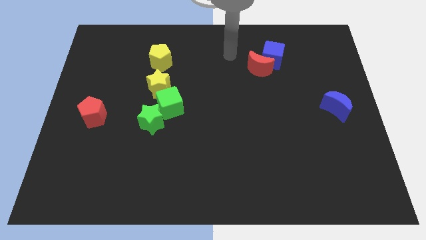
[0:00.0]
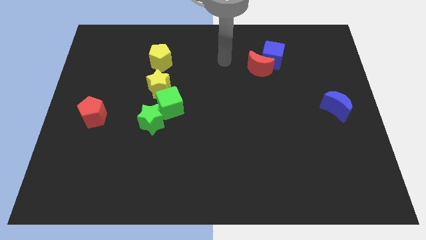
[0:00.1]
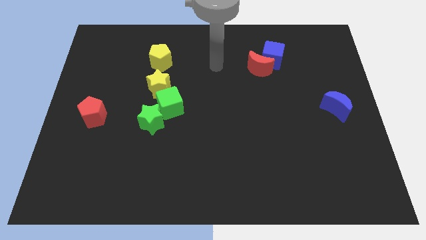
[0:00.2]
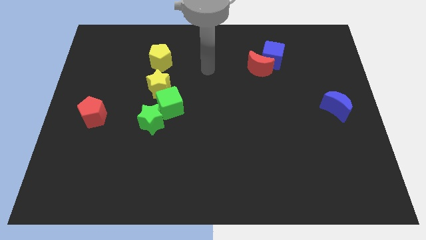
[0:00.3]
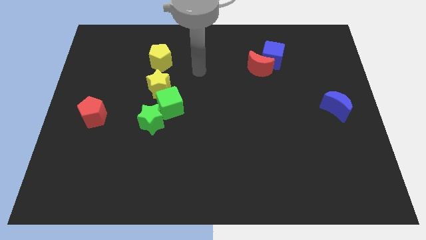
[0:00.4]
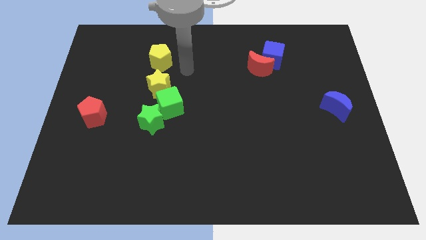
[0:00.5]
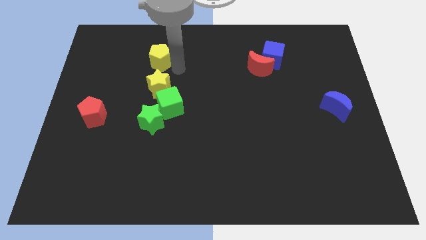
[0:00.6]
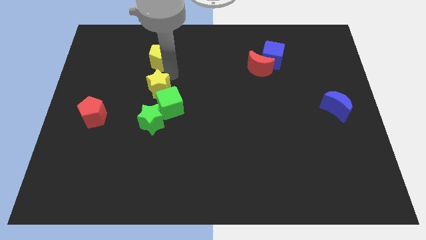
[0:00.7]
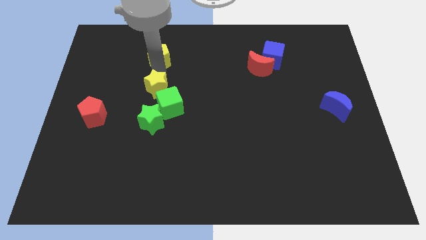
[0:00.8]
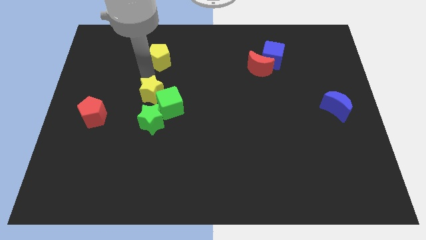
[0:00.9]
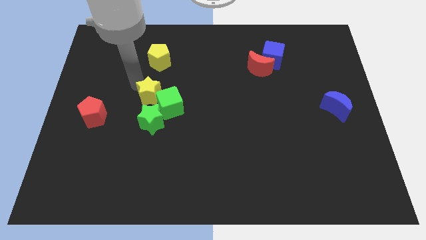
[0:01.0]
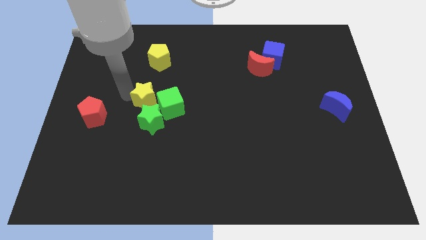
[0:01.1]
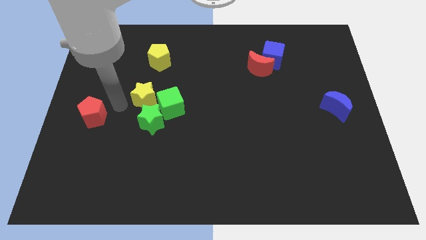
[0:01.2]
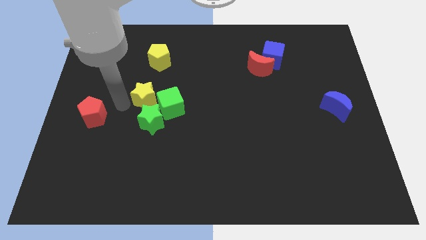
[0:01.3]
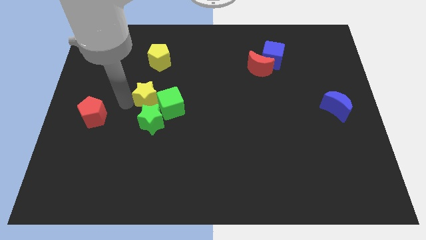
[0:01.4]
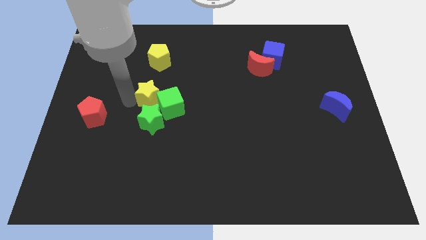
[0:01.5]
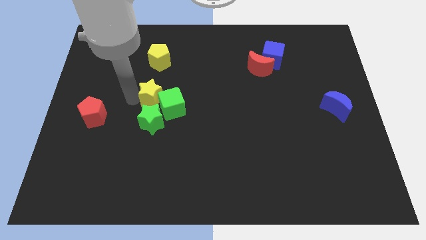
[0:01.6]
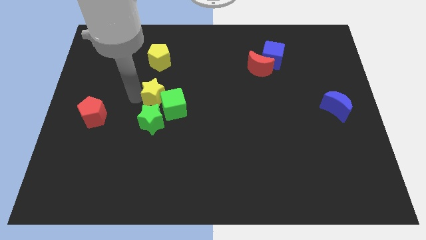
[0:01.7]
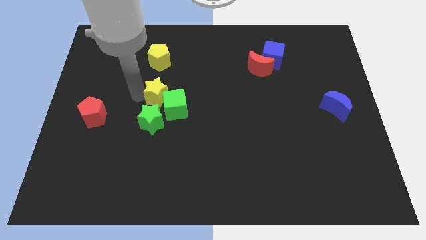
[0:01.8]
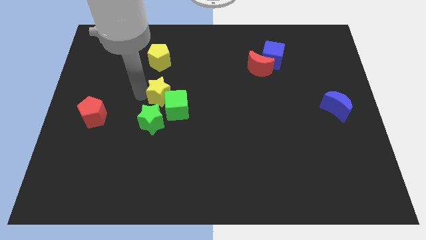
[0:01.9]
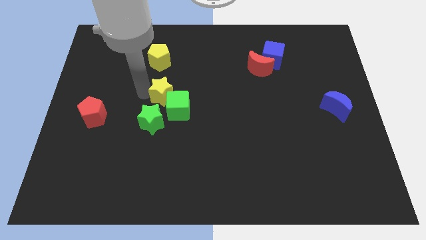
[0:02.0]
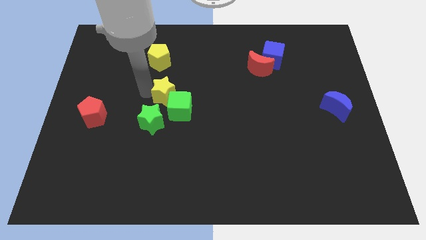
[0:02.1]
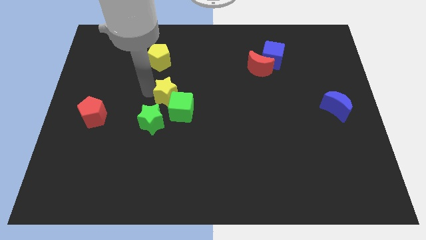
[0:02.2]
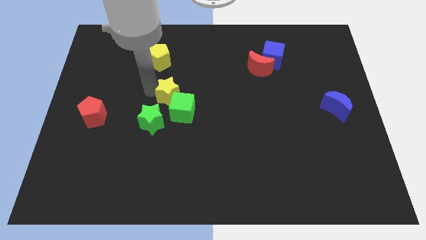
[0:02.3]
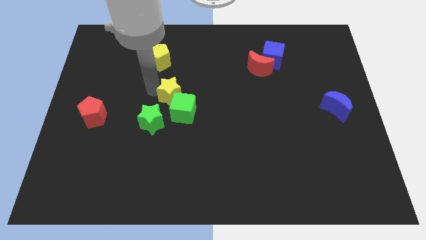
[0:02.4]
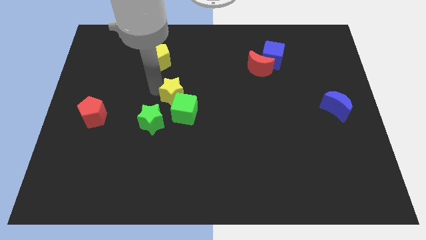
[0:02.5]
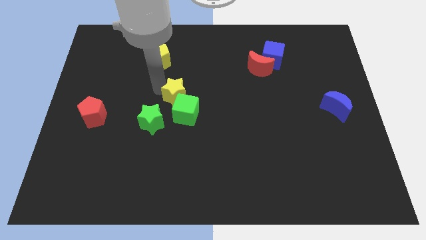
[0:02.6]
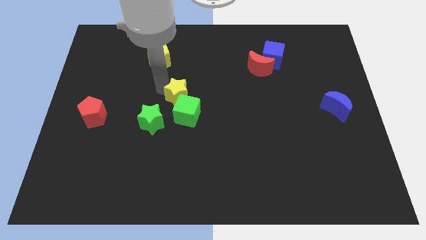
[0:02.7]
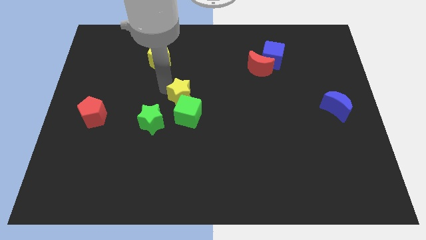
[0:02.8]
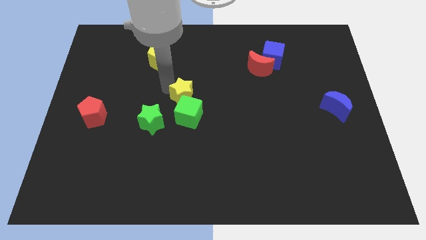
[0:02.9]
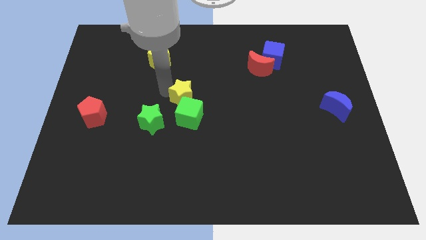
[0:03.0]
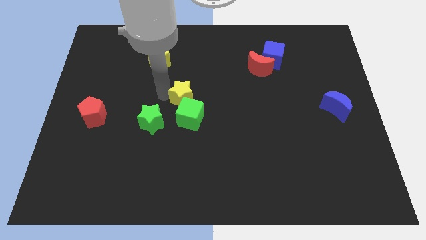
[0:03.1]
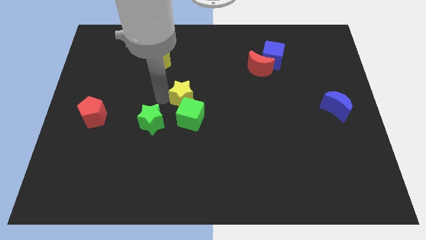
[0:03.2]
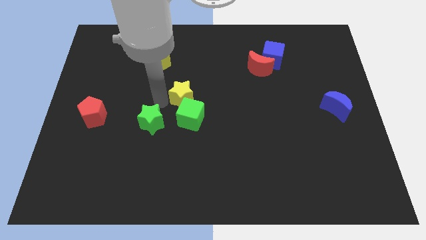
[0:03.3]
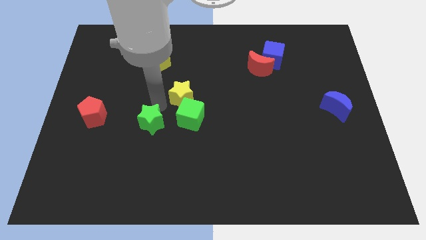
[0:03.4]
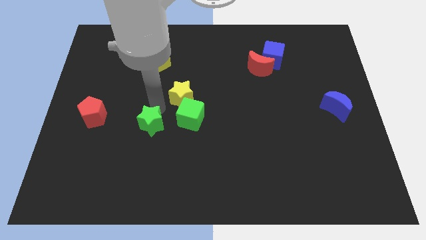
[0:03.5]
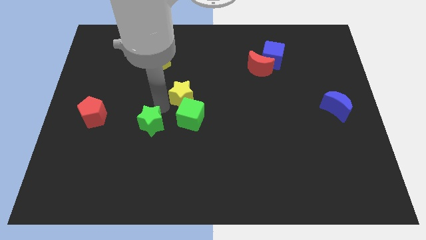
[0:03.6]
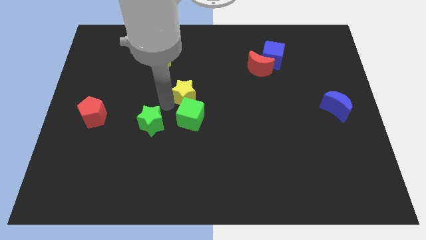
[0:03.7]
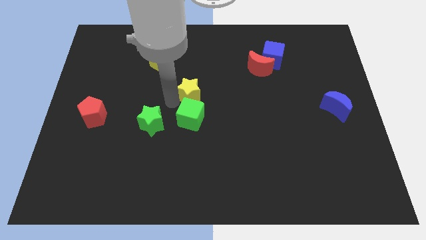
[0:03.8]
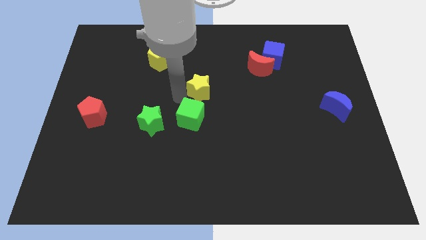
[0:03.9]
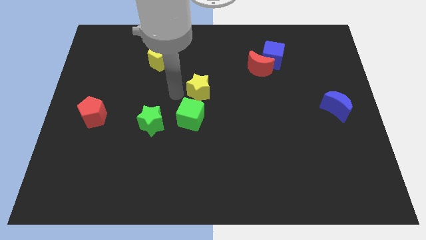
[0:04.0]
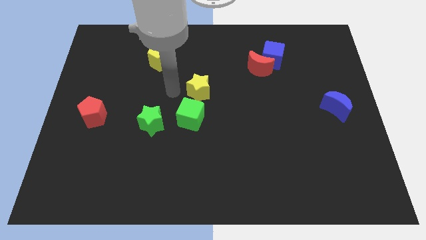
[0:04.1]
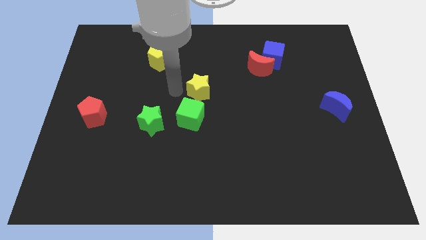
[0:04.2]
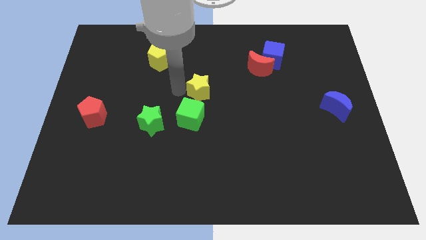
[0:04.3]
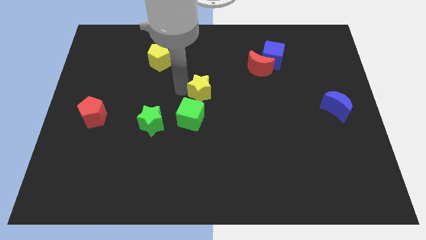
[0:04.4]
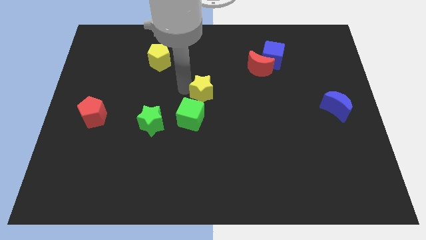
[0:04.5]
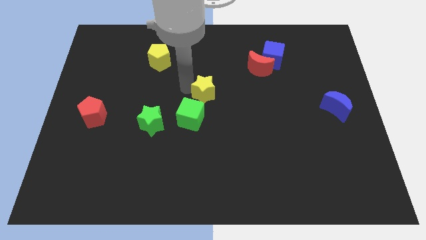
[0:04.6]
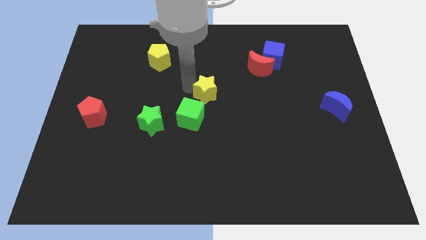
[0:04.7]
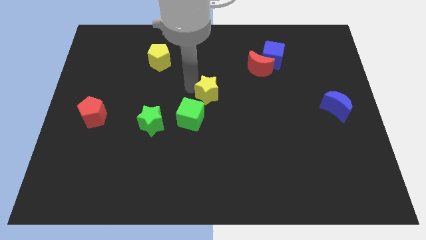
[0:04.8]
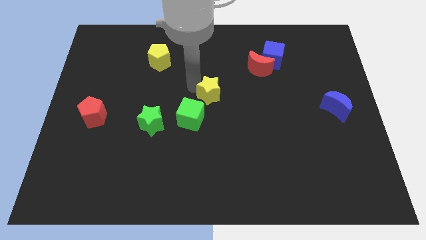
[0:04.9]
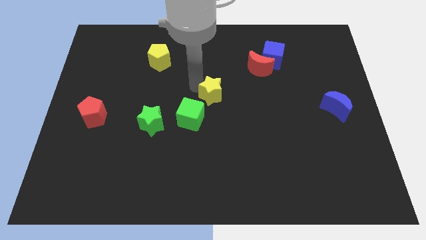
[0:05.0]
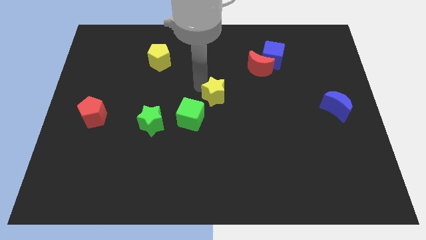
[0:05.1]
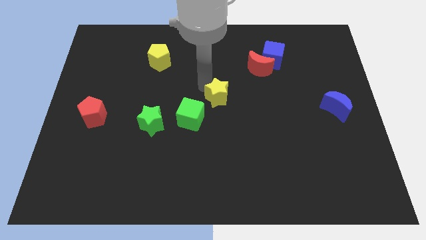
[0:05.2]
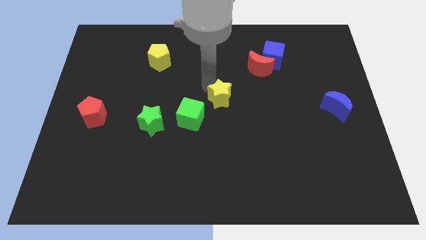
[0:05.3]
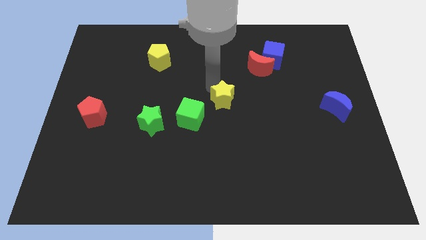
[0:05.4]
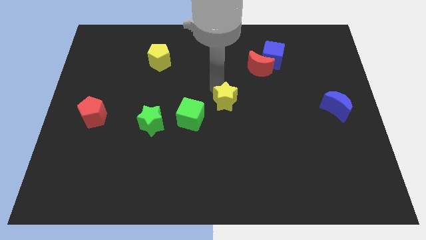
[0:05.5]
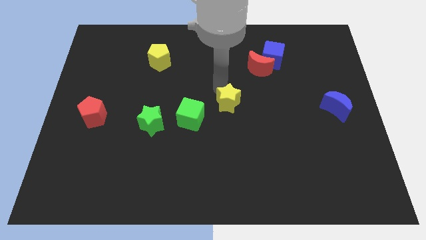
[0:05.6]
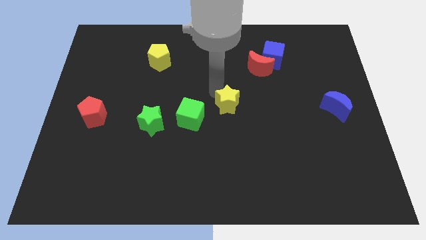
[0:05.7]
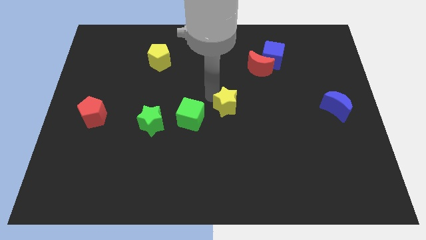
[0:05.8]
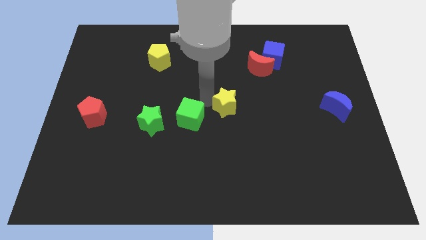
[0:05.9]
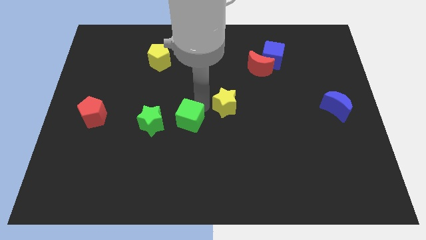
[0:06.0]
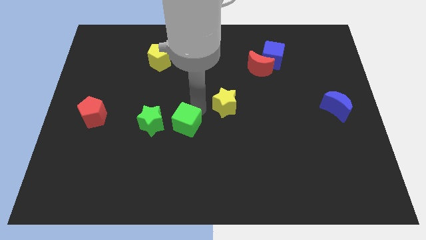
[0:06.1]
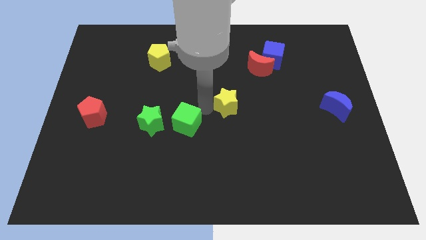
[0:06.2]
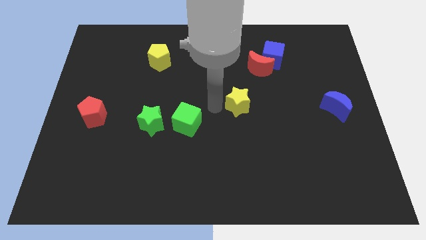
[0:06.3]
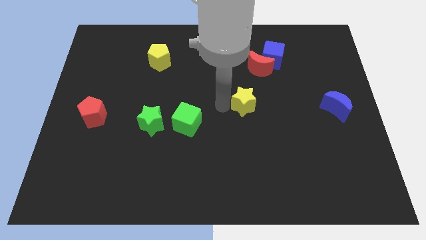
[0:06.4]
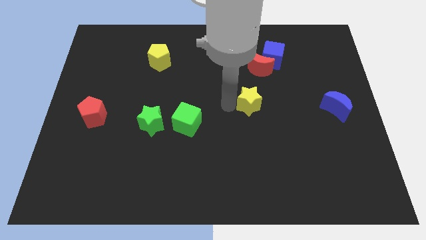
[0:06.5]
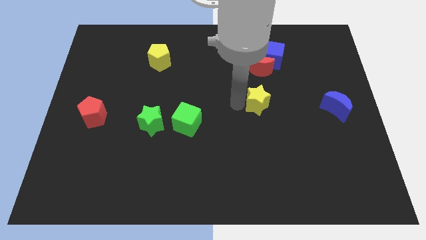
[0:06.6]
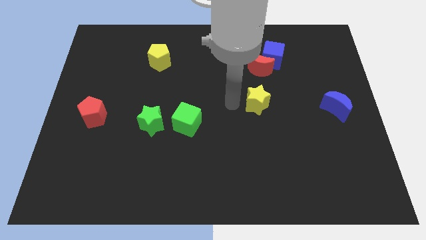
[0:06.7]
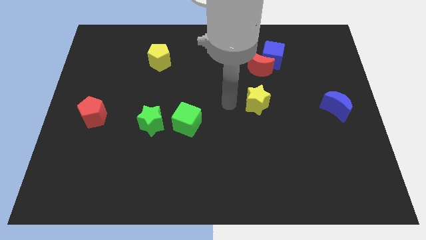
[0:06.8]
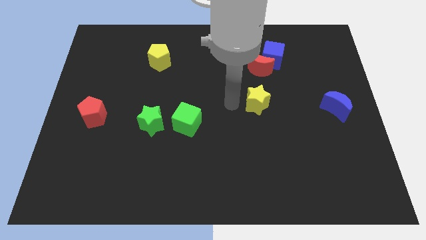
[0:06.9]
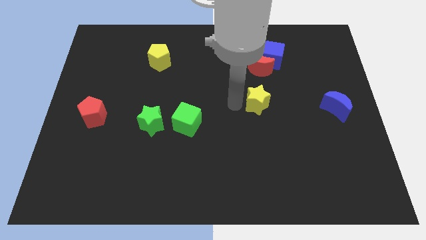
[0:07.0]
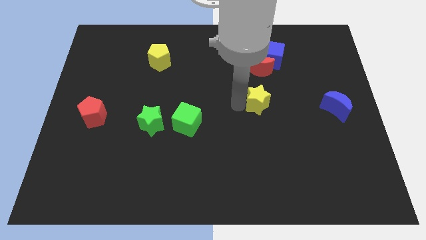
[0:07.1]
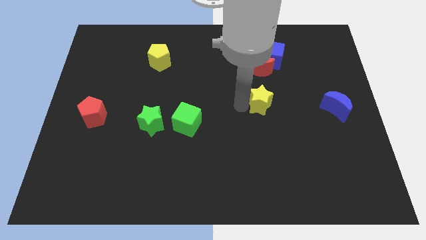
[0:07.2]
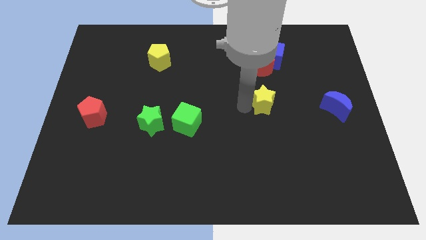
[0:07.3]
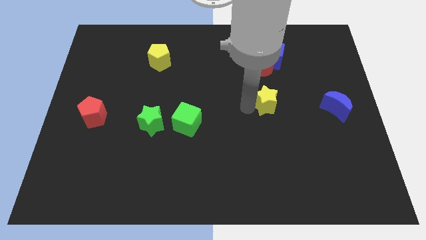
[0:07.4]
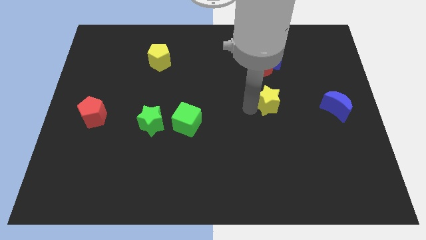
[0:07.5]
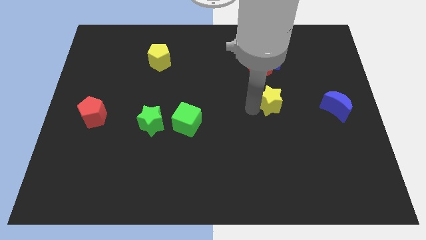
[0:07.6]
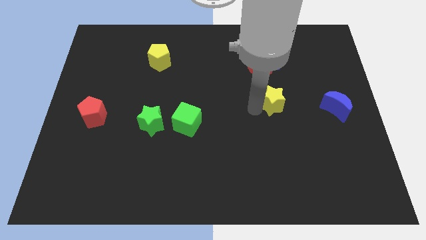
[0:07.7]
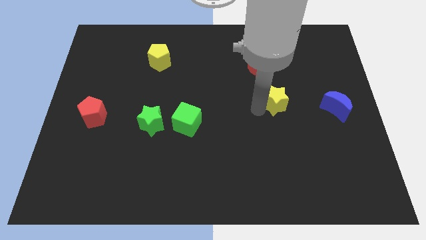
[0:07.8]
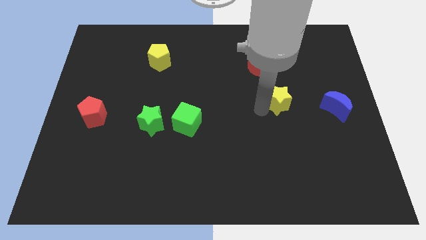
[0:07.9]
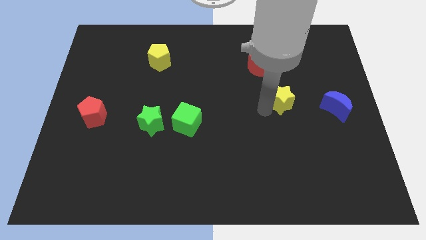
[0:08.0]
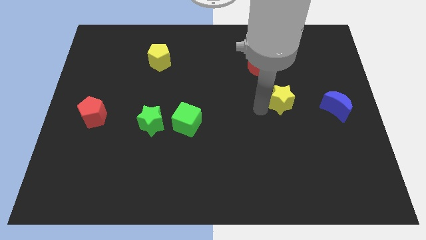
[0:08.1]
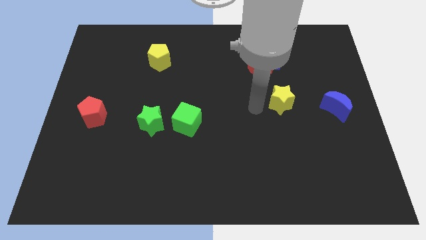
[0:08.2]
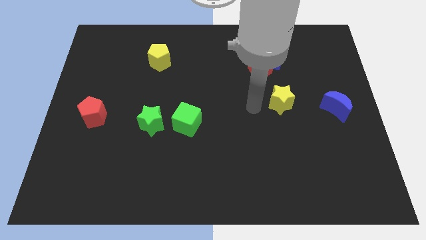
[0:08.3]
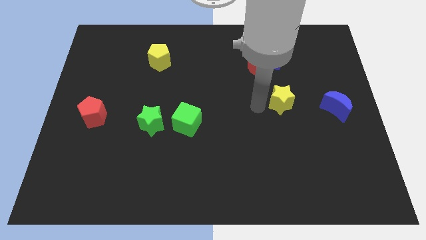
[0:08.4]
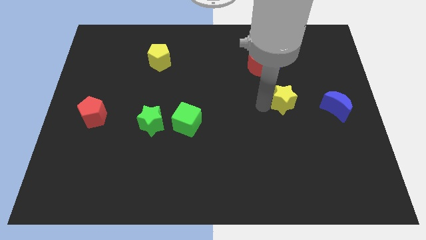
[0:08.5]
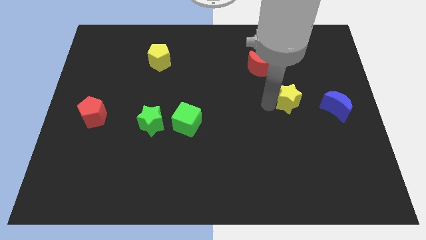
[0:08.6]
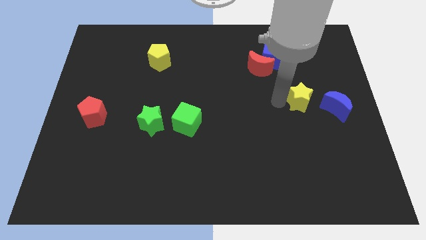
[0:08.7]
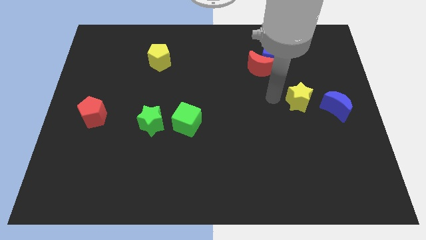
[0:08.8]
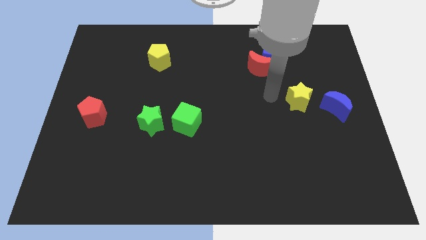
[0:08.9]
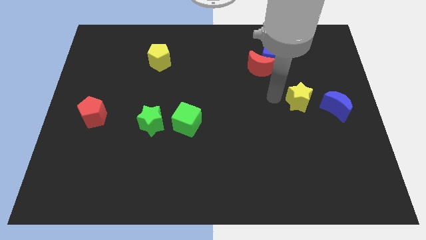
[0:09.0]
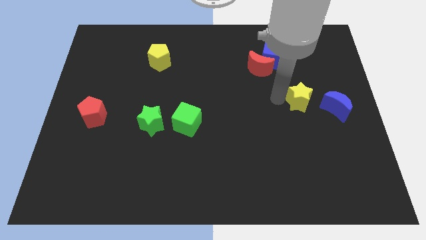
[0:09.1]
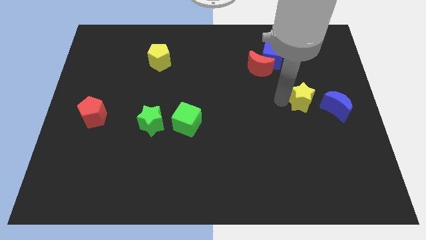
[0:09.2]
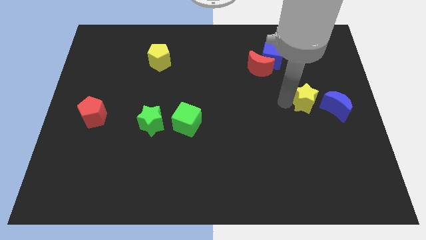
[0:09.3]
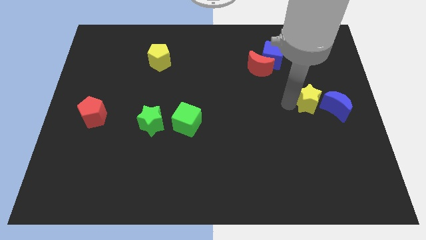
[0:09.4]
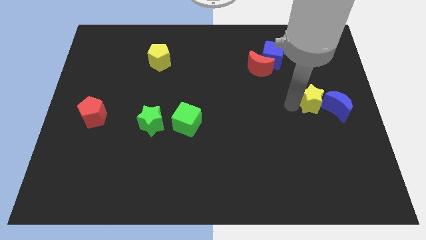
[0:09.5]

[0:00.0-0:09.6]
slide the yellow star close to the blue moon
